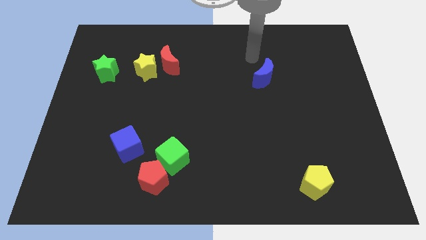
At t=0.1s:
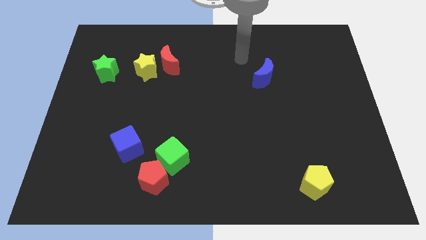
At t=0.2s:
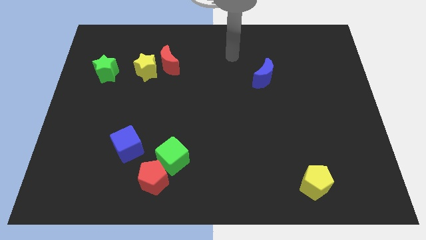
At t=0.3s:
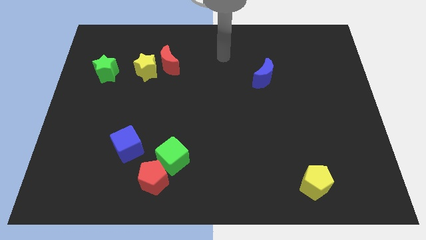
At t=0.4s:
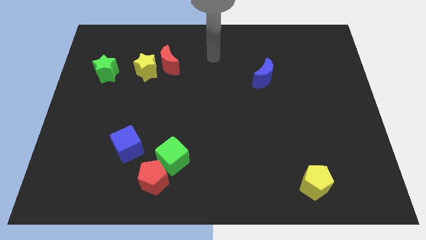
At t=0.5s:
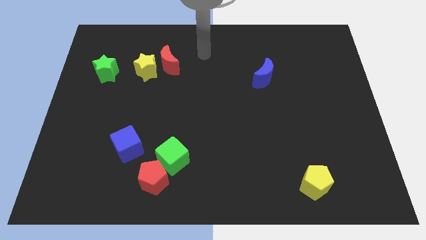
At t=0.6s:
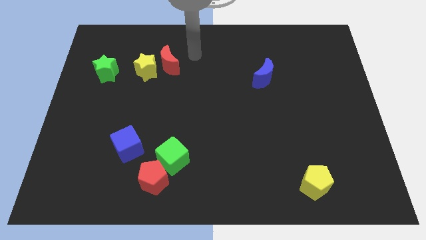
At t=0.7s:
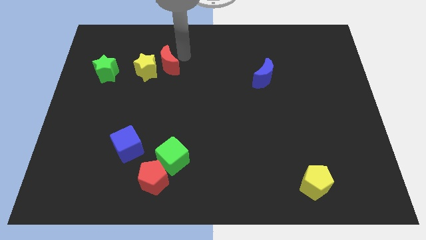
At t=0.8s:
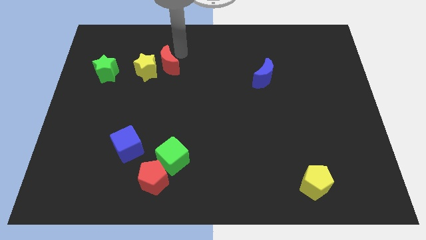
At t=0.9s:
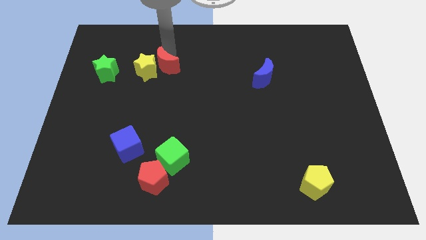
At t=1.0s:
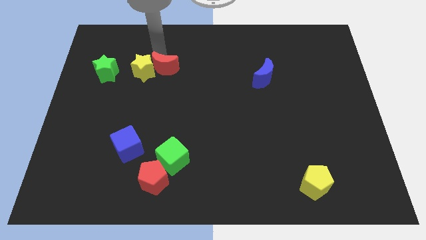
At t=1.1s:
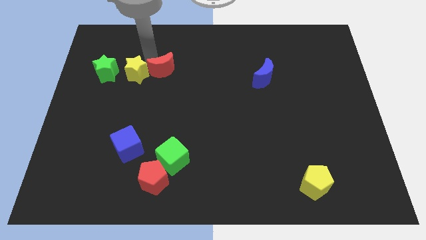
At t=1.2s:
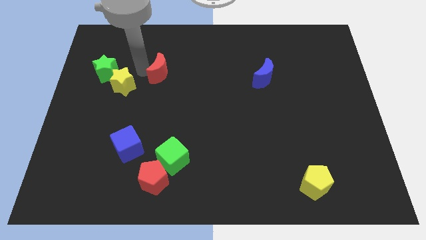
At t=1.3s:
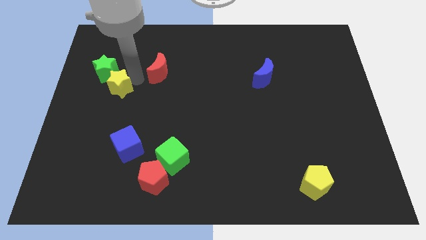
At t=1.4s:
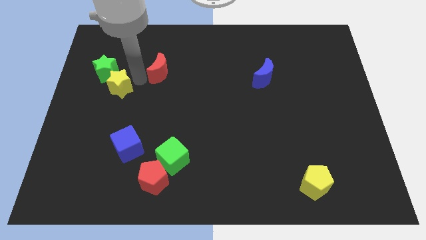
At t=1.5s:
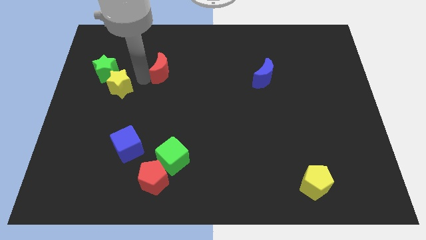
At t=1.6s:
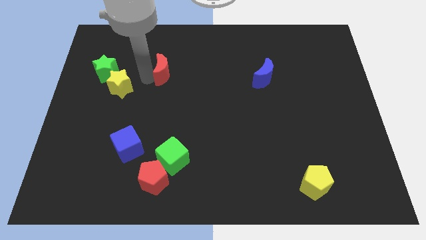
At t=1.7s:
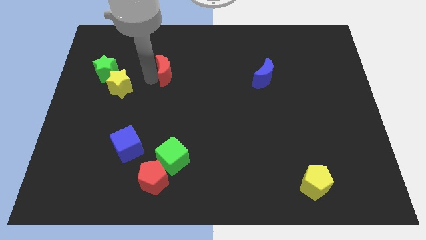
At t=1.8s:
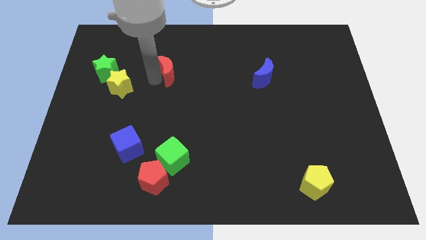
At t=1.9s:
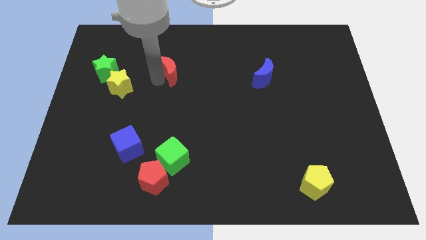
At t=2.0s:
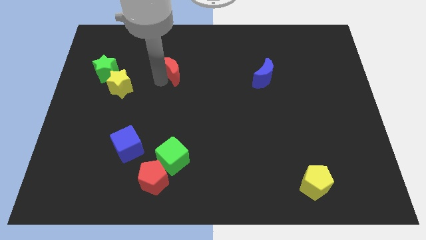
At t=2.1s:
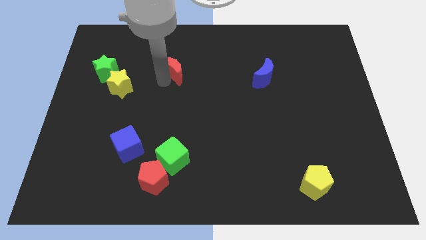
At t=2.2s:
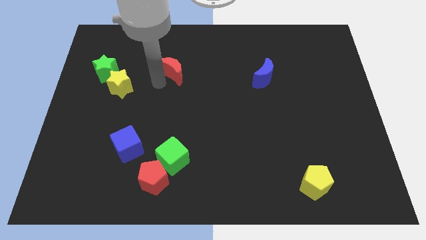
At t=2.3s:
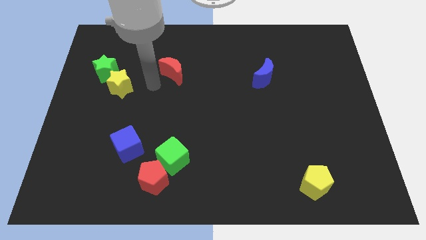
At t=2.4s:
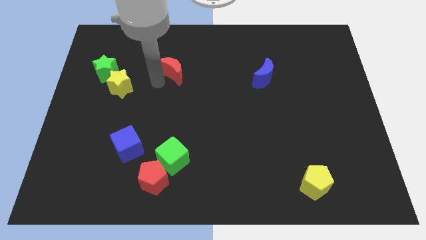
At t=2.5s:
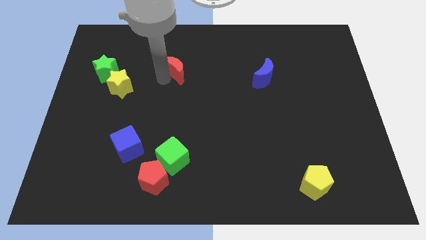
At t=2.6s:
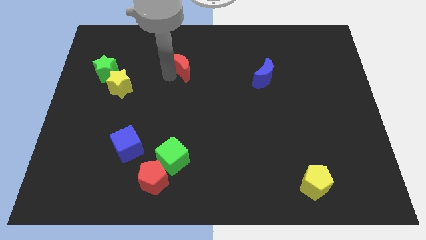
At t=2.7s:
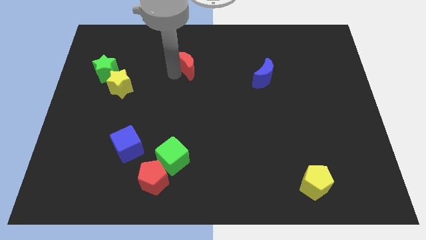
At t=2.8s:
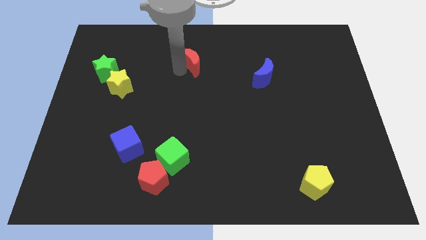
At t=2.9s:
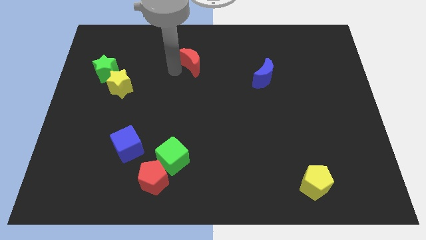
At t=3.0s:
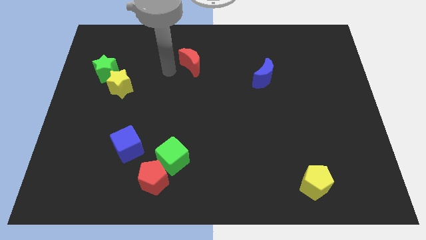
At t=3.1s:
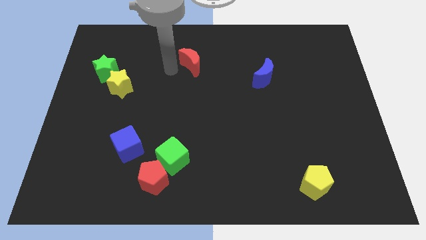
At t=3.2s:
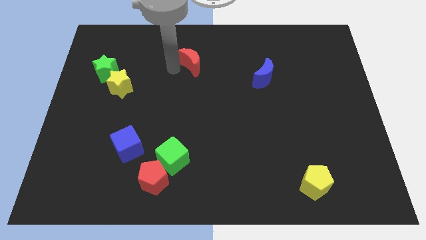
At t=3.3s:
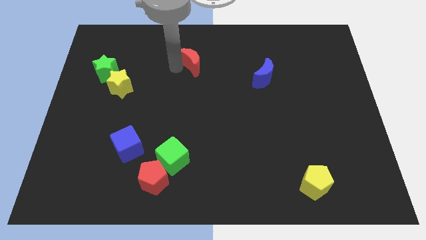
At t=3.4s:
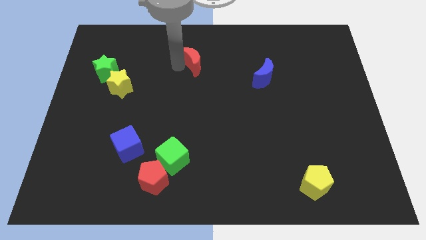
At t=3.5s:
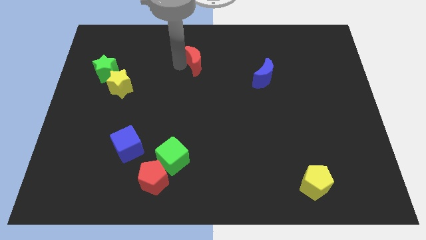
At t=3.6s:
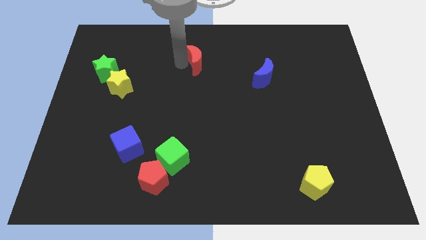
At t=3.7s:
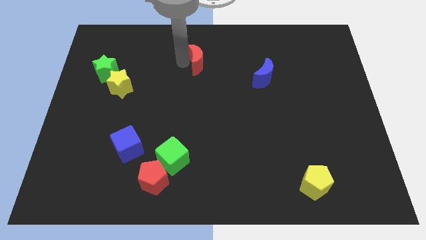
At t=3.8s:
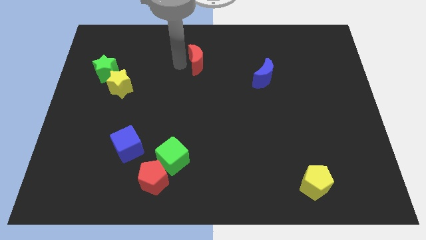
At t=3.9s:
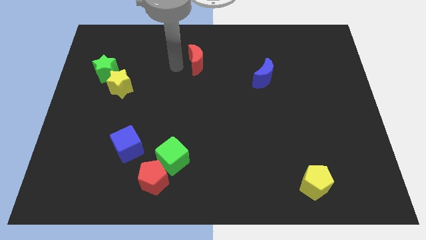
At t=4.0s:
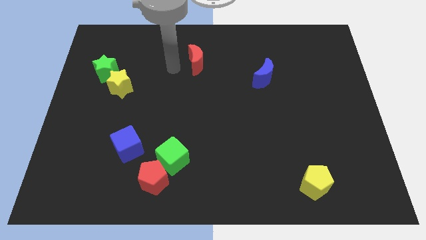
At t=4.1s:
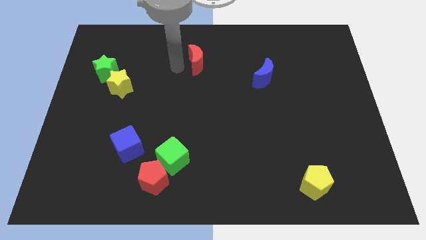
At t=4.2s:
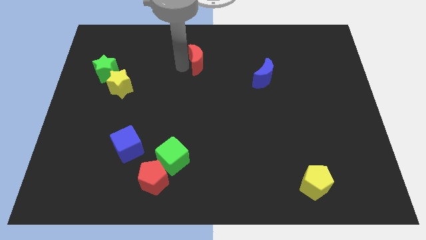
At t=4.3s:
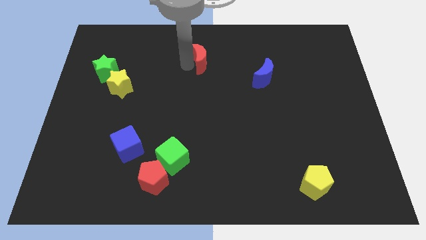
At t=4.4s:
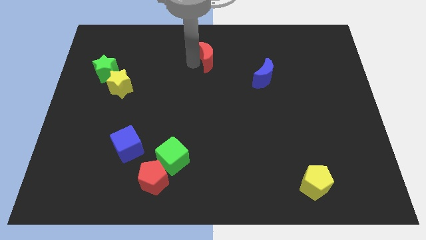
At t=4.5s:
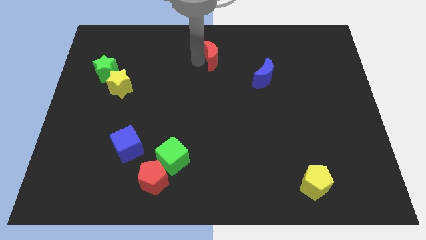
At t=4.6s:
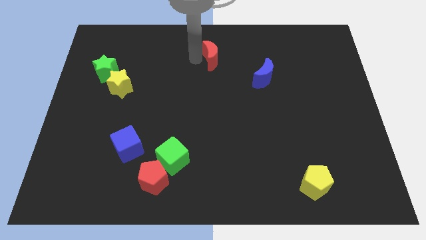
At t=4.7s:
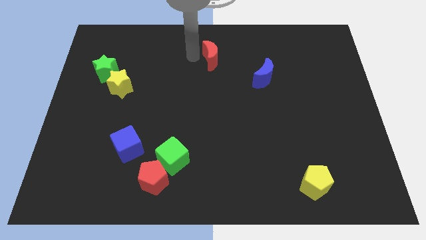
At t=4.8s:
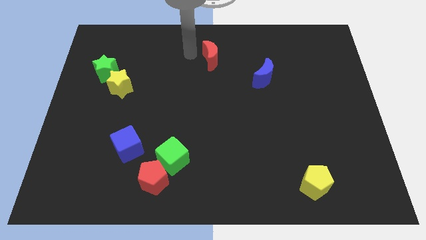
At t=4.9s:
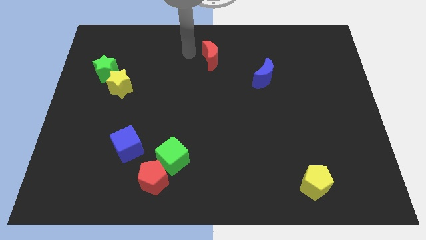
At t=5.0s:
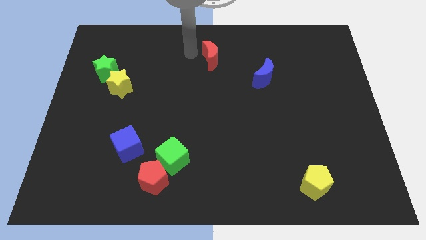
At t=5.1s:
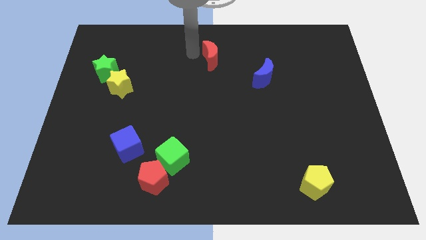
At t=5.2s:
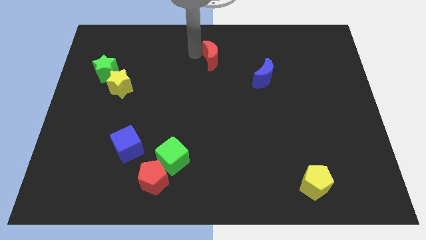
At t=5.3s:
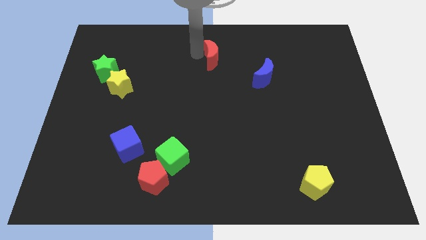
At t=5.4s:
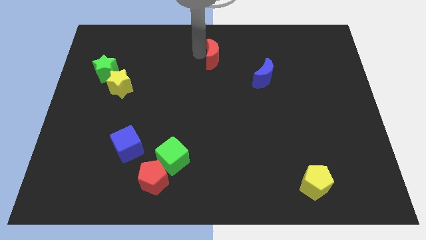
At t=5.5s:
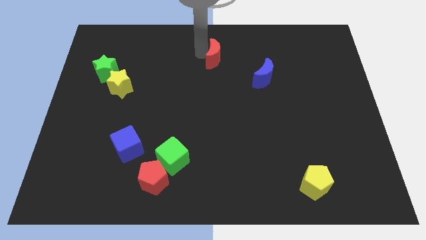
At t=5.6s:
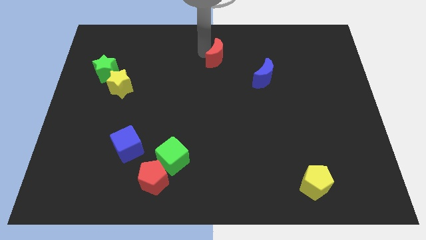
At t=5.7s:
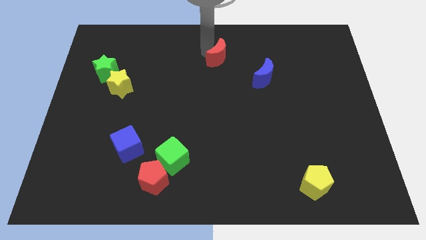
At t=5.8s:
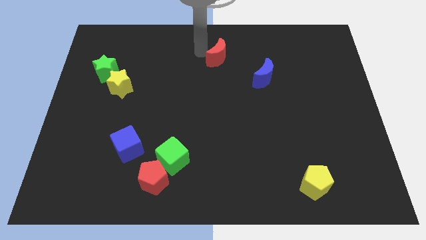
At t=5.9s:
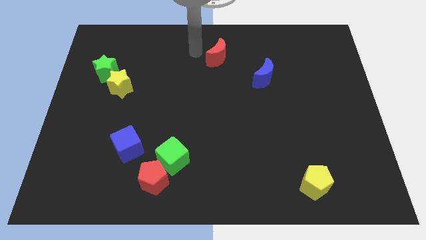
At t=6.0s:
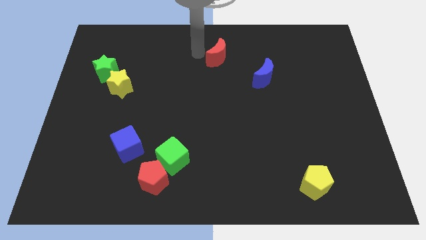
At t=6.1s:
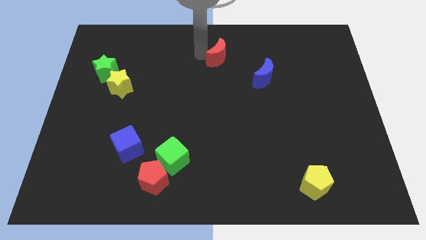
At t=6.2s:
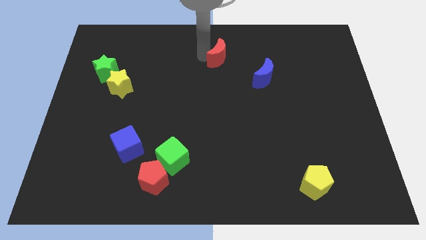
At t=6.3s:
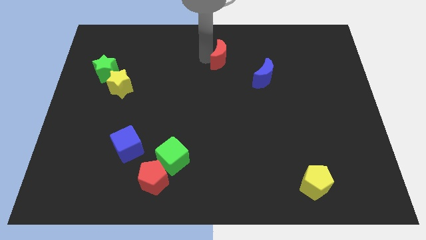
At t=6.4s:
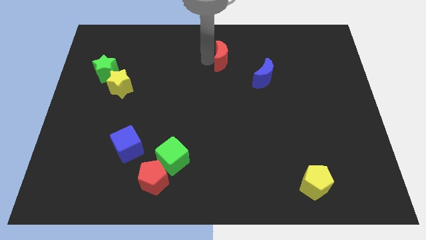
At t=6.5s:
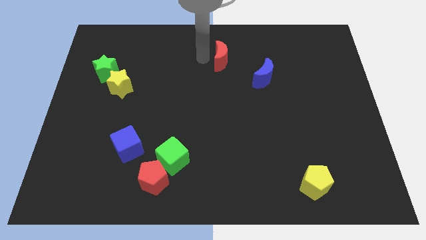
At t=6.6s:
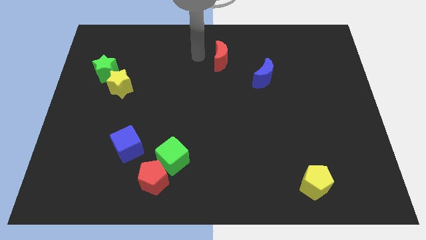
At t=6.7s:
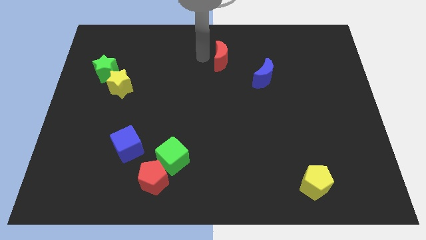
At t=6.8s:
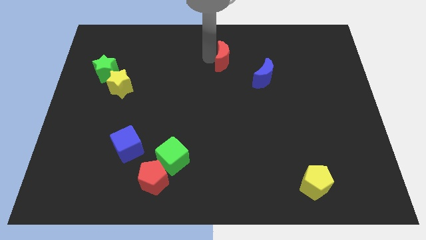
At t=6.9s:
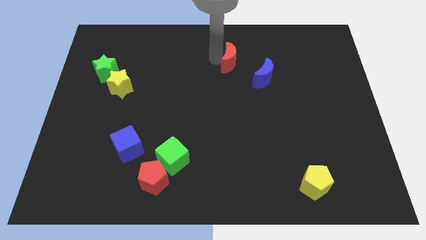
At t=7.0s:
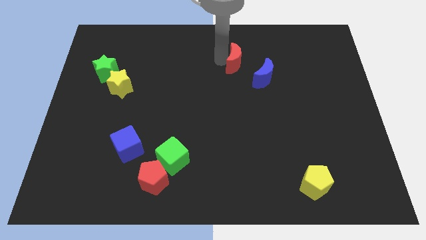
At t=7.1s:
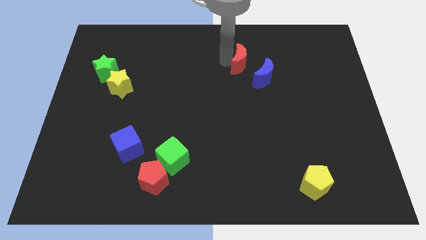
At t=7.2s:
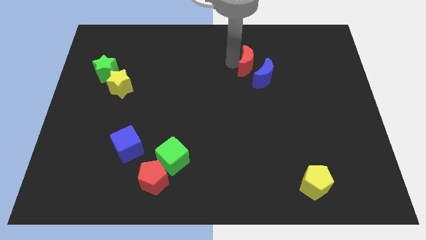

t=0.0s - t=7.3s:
push the red moon to the right

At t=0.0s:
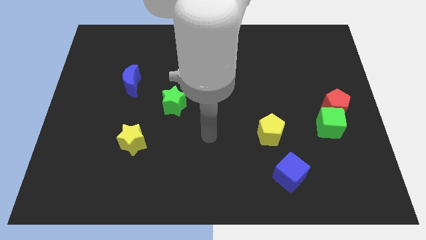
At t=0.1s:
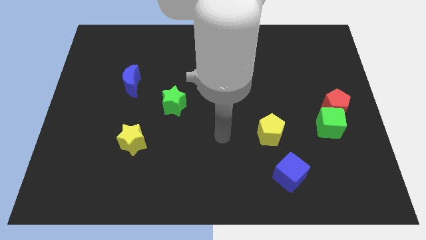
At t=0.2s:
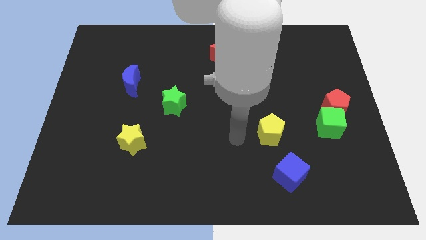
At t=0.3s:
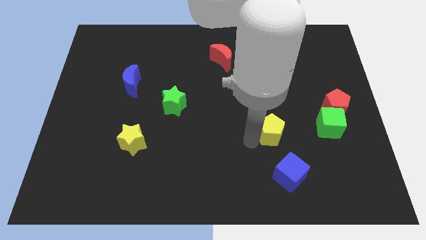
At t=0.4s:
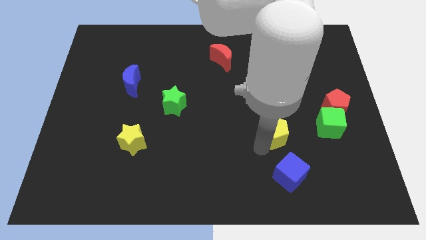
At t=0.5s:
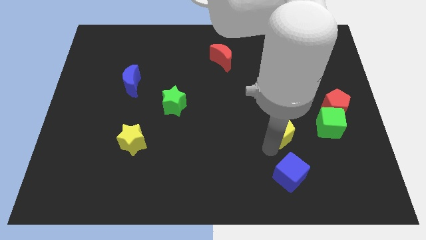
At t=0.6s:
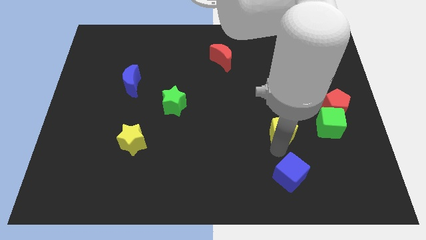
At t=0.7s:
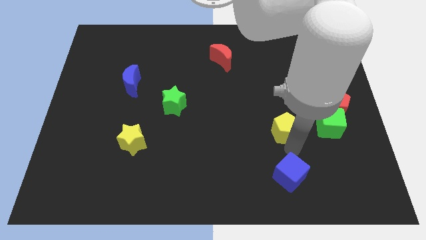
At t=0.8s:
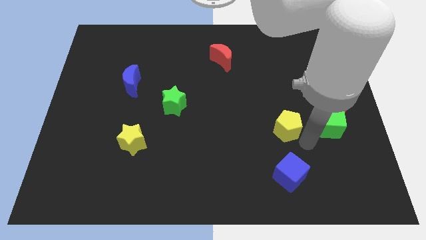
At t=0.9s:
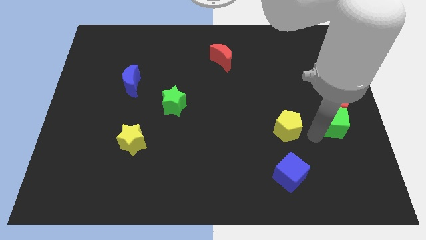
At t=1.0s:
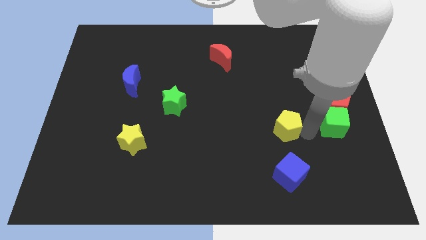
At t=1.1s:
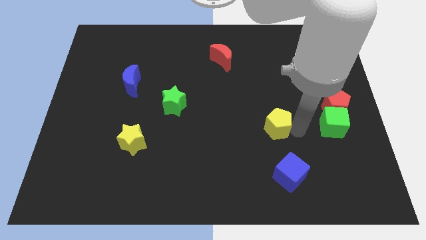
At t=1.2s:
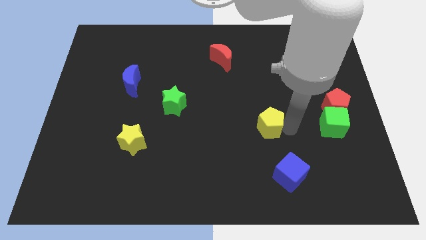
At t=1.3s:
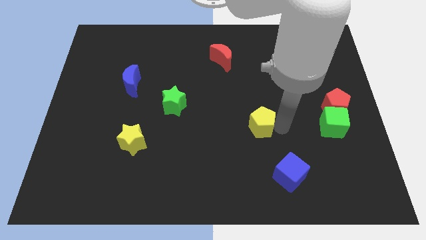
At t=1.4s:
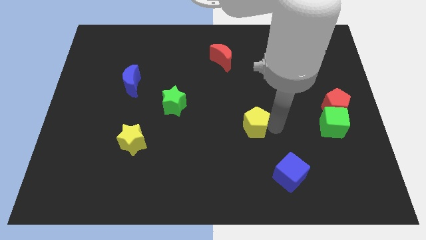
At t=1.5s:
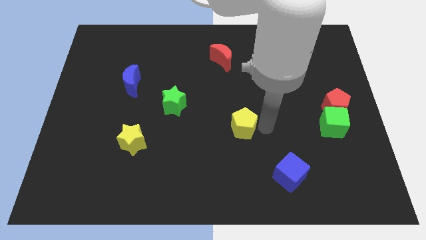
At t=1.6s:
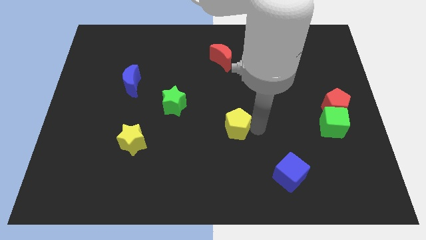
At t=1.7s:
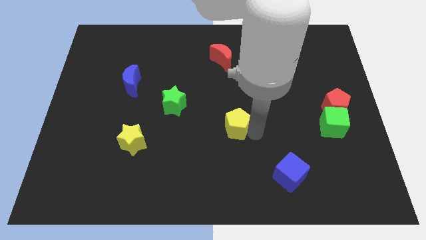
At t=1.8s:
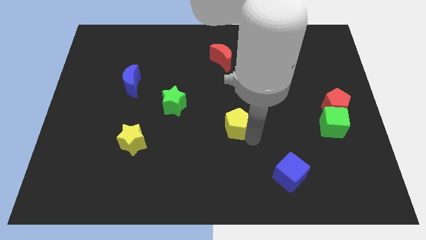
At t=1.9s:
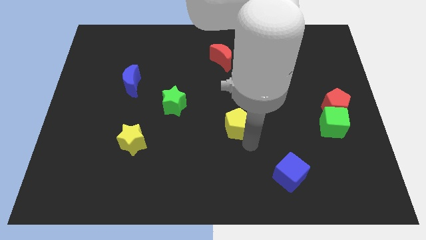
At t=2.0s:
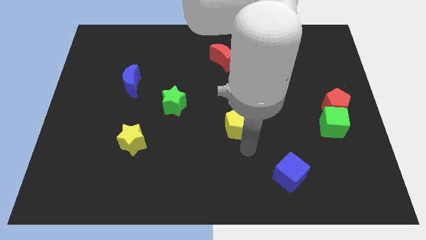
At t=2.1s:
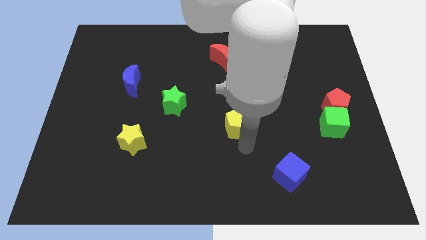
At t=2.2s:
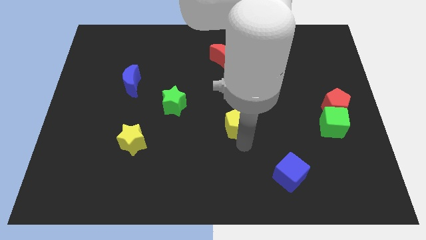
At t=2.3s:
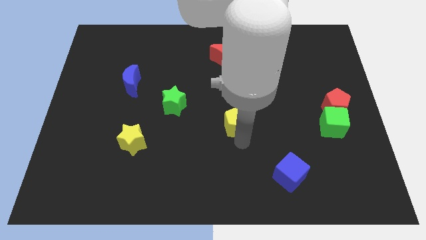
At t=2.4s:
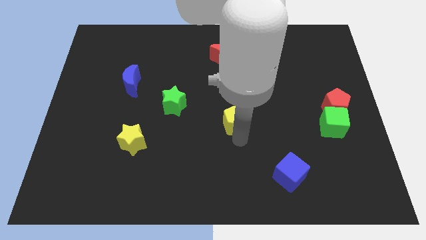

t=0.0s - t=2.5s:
move the yellow pentagon a little bit upwards and then left
